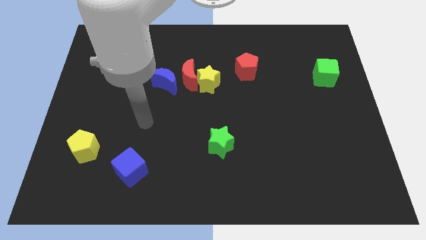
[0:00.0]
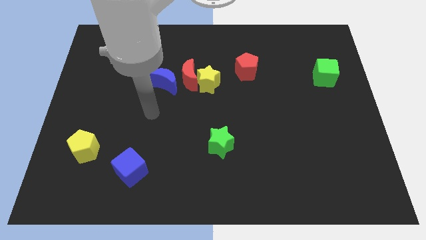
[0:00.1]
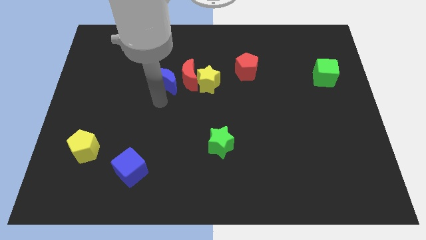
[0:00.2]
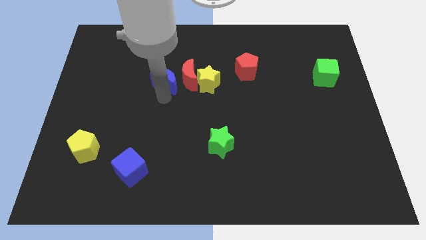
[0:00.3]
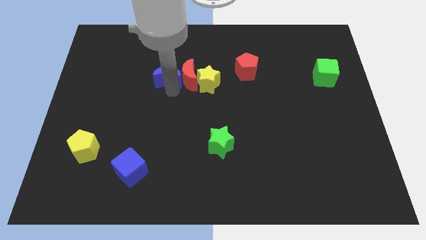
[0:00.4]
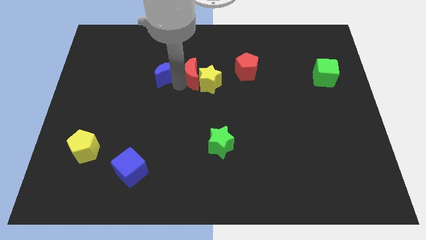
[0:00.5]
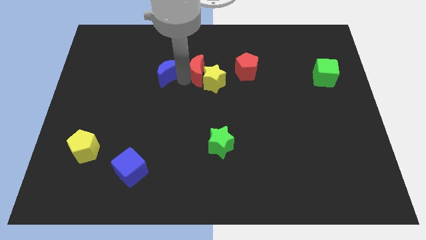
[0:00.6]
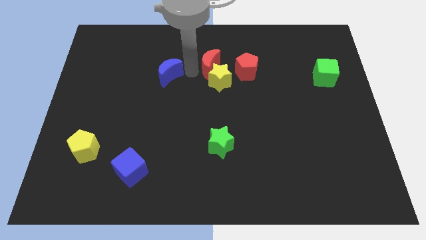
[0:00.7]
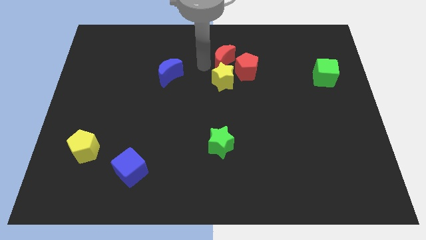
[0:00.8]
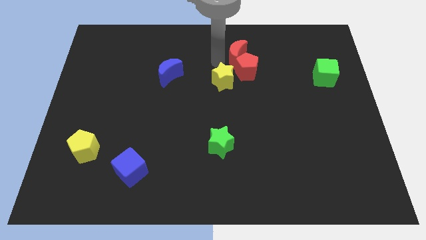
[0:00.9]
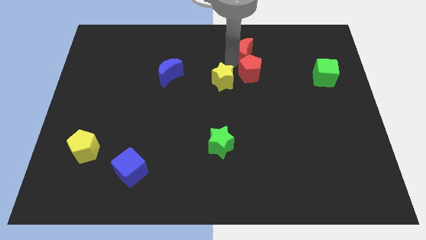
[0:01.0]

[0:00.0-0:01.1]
move the yellow star away from the red moon

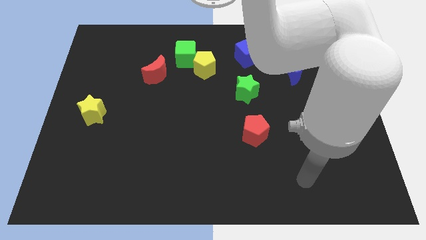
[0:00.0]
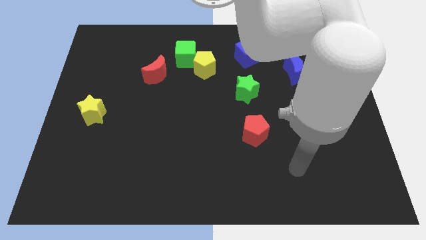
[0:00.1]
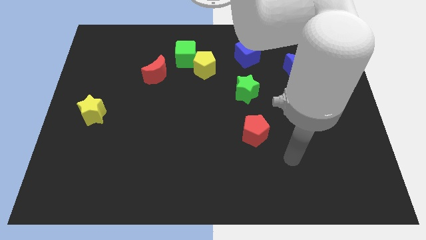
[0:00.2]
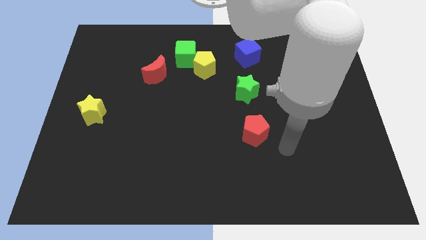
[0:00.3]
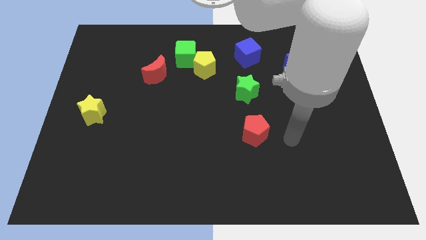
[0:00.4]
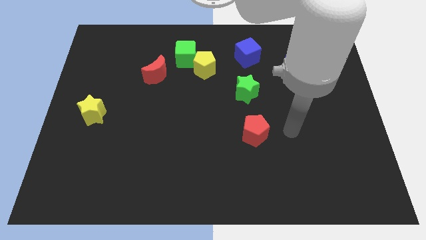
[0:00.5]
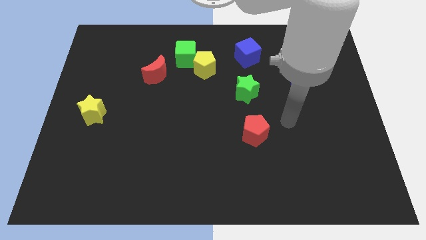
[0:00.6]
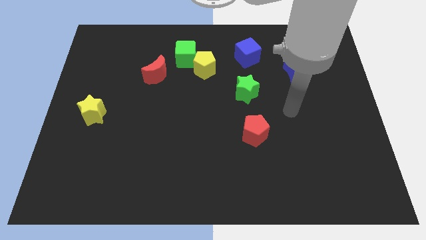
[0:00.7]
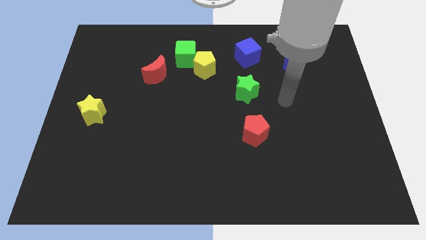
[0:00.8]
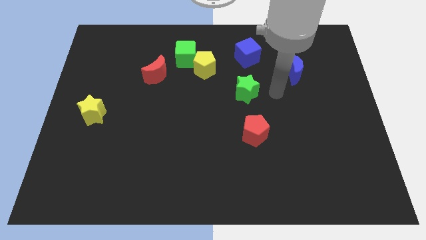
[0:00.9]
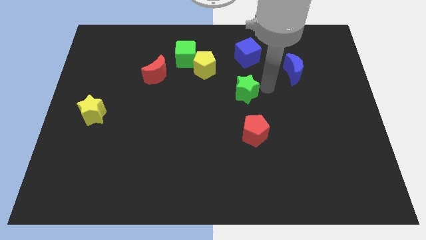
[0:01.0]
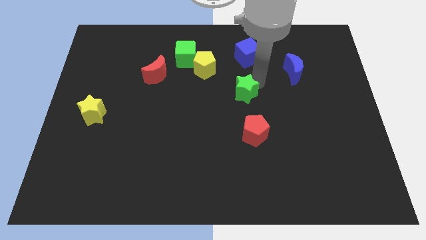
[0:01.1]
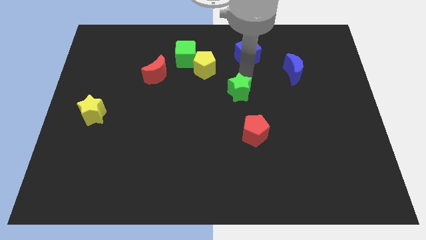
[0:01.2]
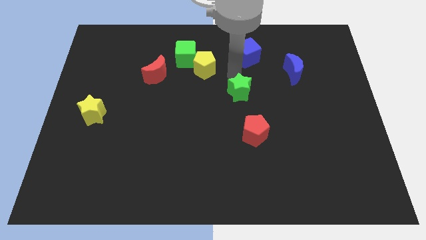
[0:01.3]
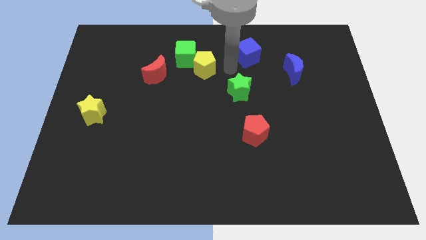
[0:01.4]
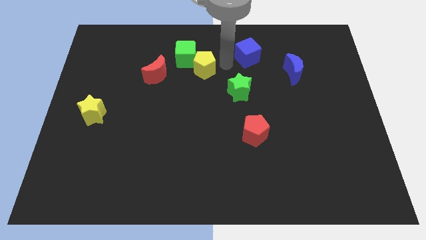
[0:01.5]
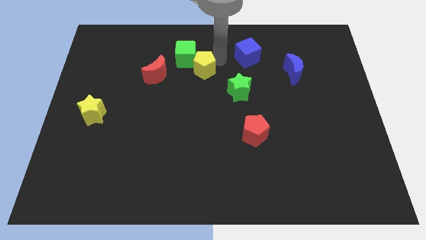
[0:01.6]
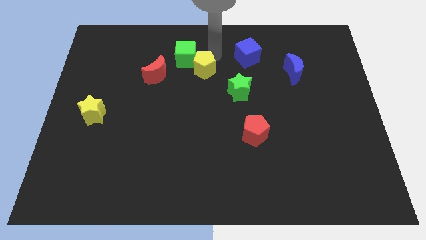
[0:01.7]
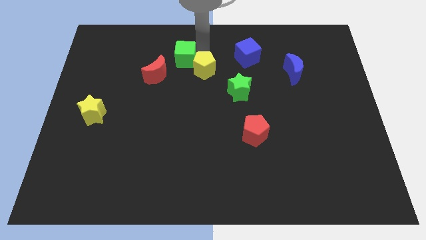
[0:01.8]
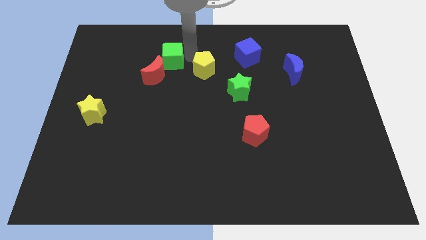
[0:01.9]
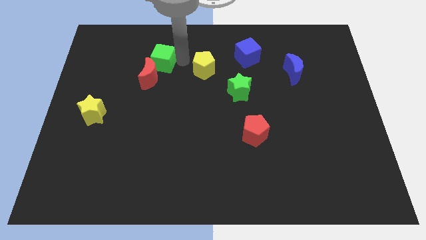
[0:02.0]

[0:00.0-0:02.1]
separate the yellow pentagon from the green cube

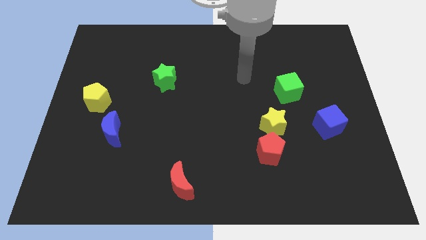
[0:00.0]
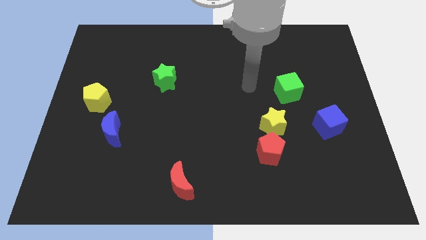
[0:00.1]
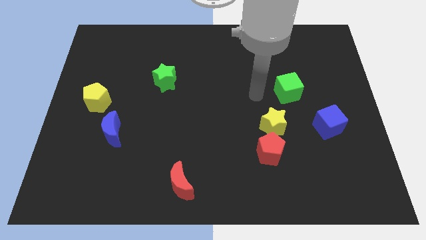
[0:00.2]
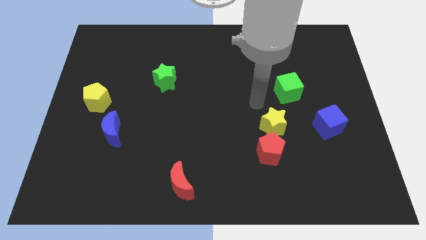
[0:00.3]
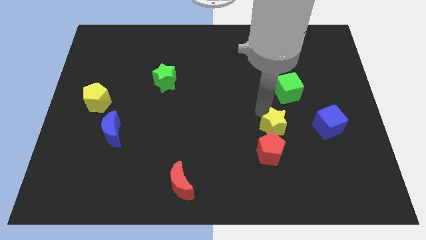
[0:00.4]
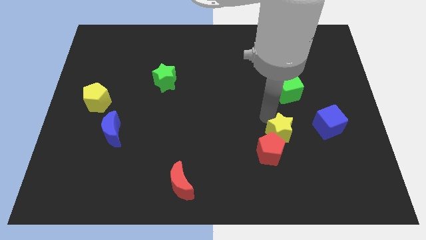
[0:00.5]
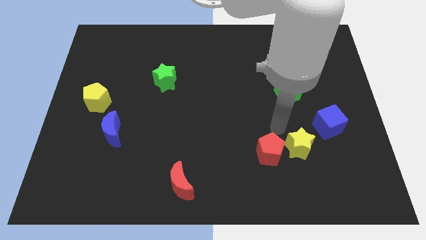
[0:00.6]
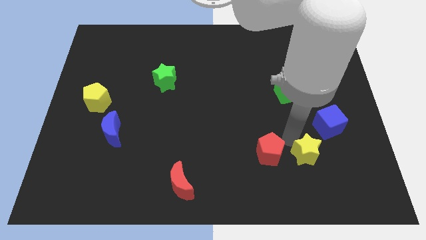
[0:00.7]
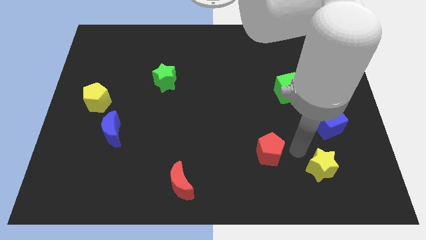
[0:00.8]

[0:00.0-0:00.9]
move the red pentagon away from the yellow star

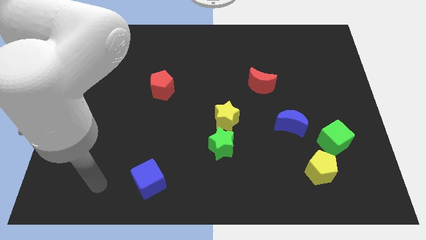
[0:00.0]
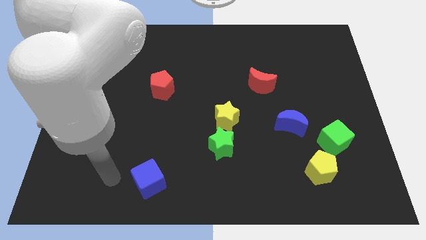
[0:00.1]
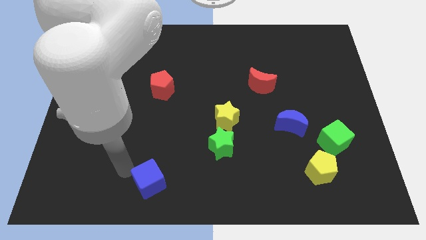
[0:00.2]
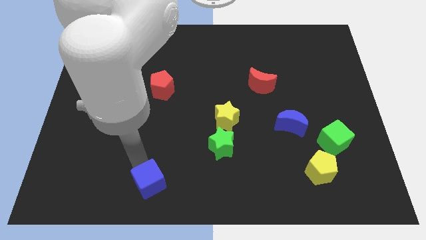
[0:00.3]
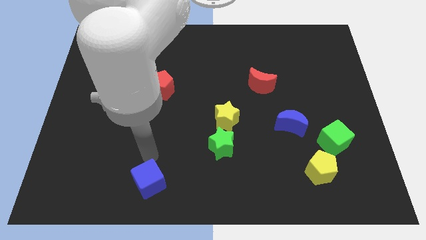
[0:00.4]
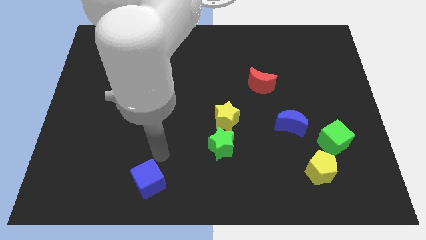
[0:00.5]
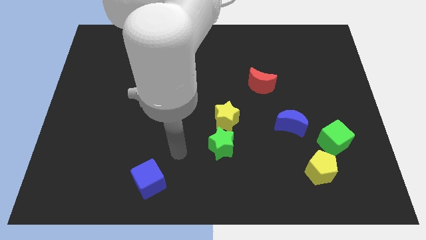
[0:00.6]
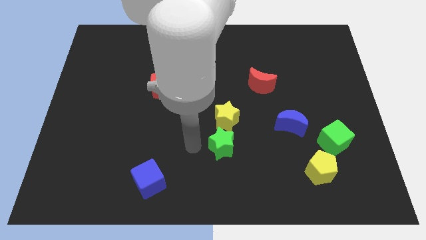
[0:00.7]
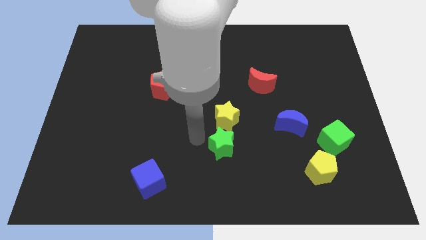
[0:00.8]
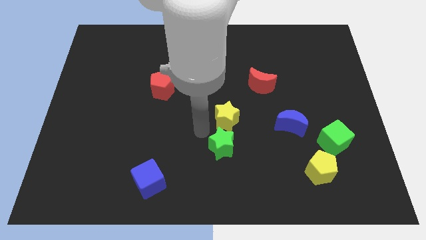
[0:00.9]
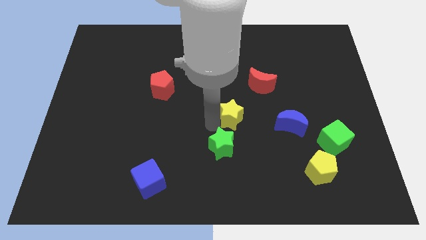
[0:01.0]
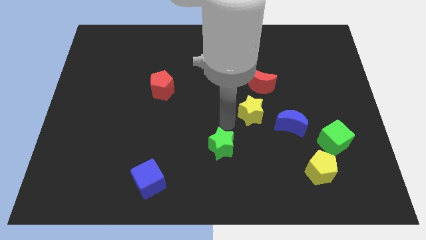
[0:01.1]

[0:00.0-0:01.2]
separate the green star from the yellow star

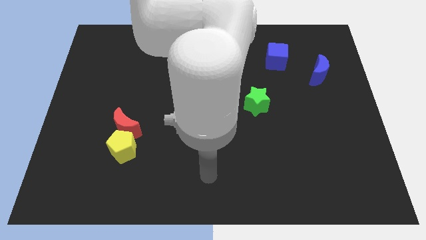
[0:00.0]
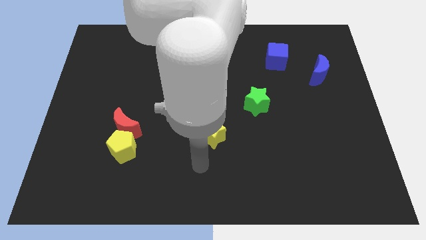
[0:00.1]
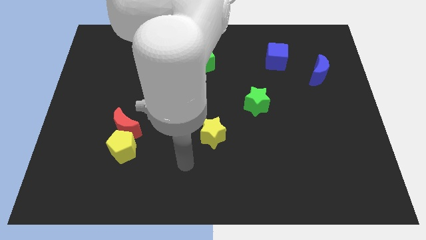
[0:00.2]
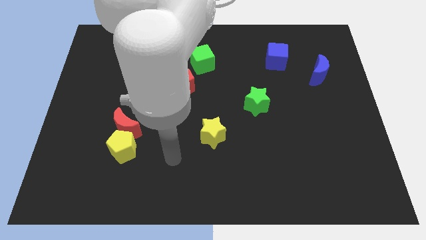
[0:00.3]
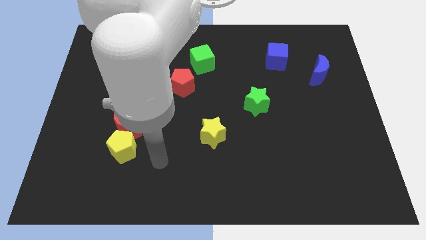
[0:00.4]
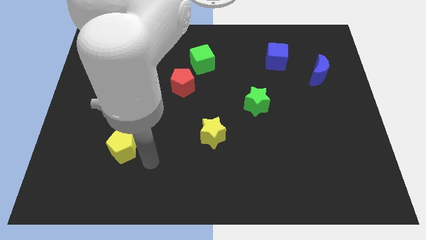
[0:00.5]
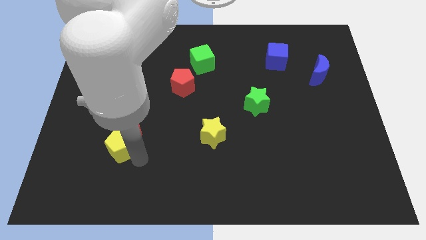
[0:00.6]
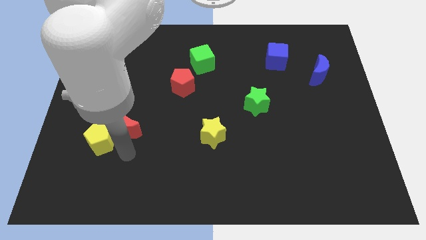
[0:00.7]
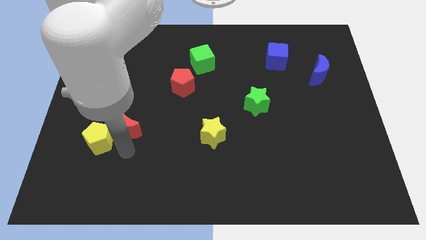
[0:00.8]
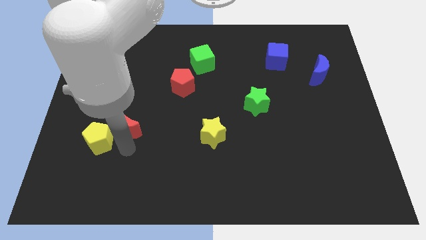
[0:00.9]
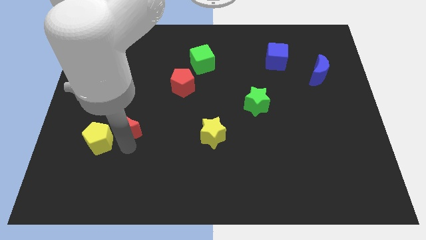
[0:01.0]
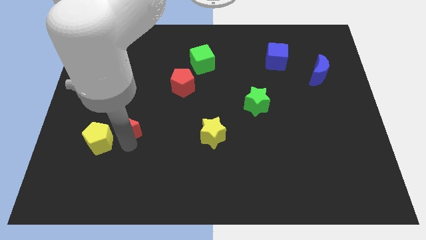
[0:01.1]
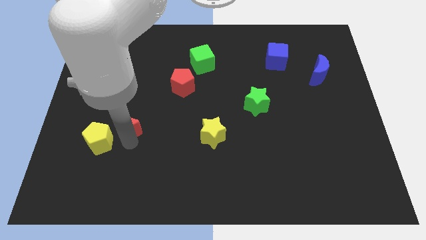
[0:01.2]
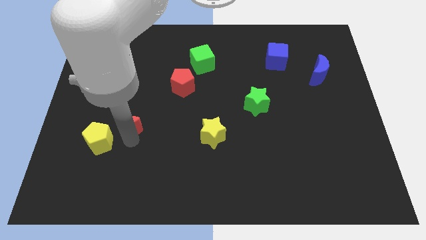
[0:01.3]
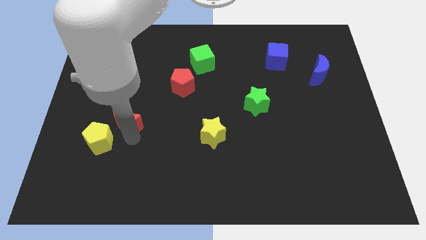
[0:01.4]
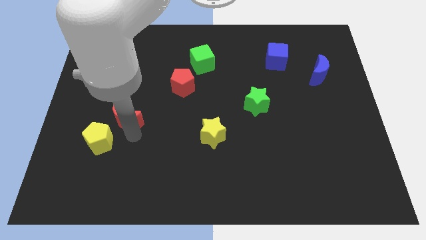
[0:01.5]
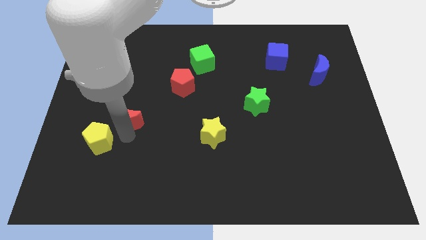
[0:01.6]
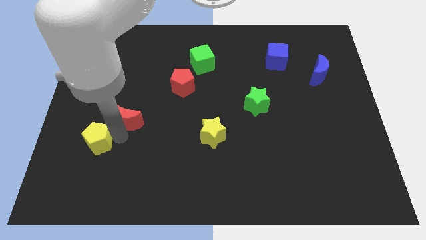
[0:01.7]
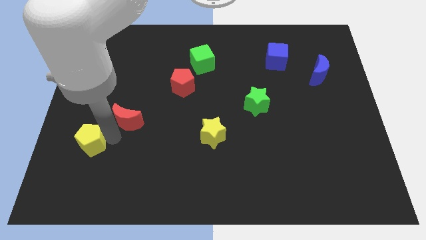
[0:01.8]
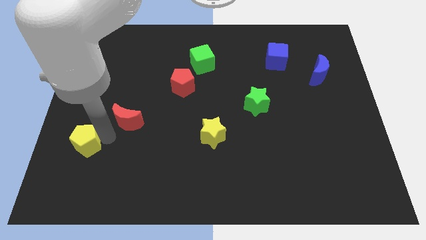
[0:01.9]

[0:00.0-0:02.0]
separate the red moon from the yellow pentagon

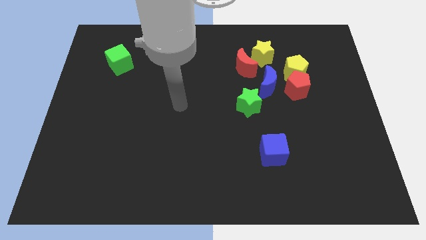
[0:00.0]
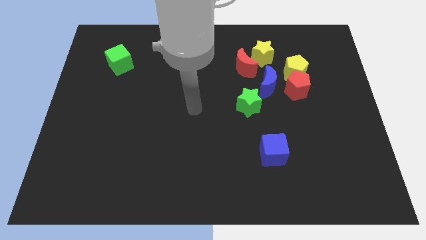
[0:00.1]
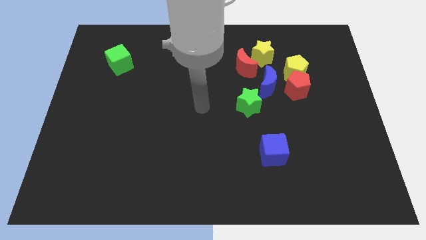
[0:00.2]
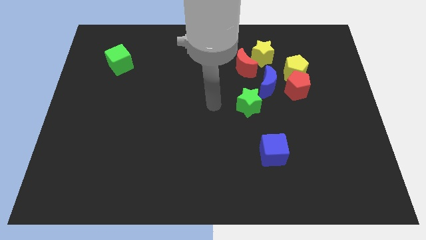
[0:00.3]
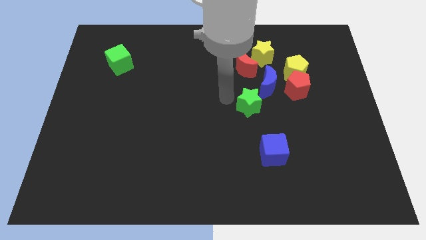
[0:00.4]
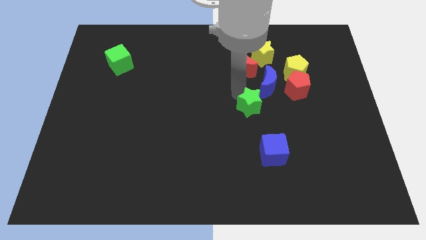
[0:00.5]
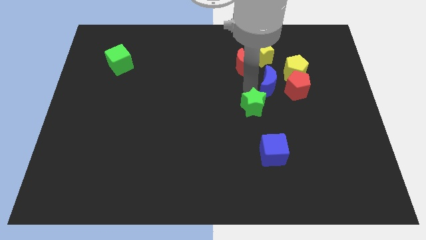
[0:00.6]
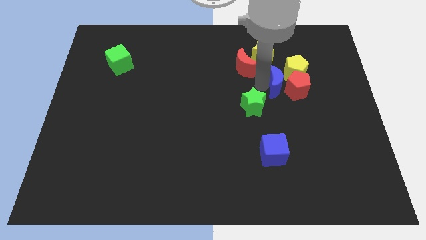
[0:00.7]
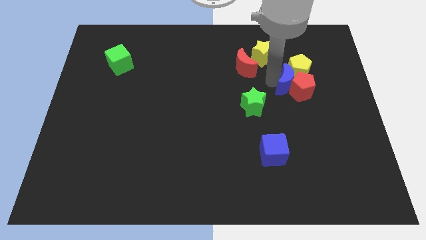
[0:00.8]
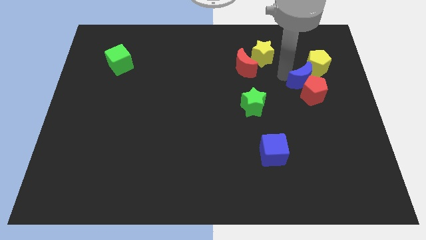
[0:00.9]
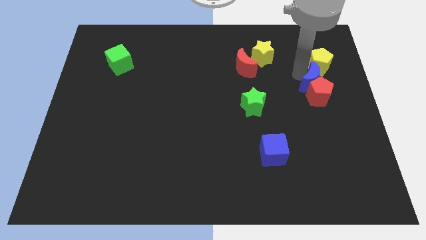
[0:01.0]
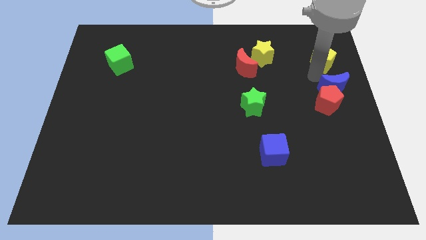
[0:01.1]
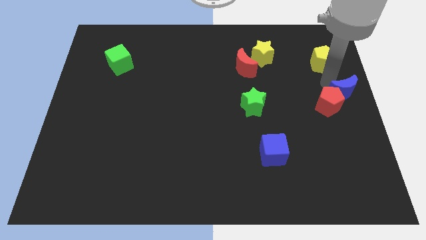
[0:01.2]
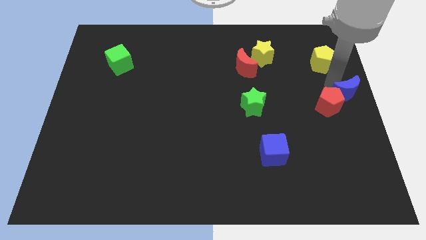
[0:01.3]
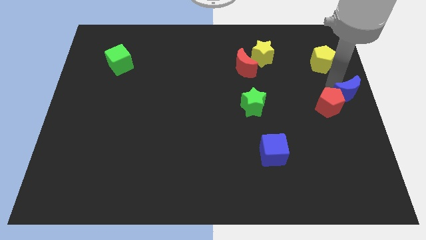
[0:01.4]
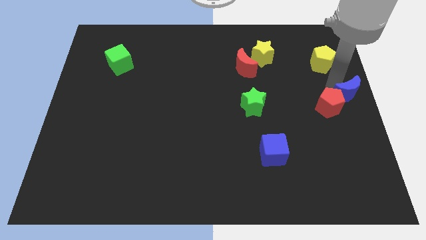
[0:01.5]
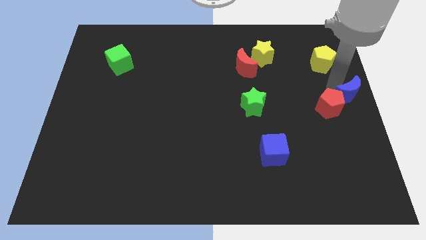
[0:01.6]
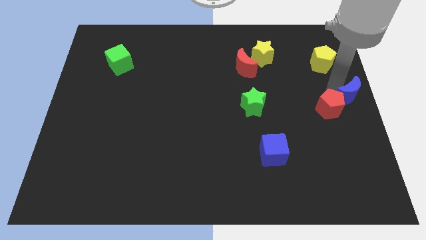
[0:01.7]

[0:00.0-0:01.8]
move the red pentagon away from the yellow pentagon and blue moon

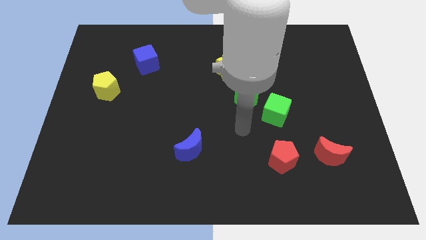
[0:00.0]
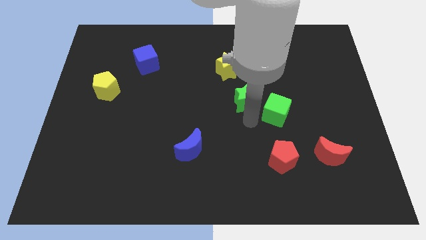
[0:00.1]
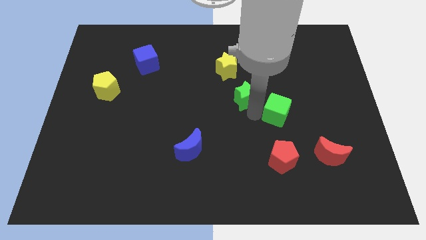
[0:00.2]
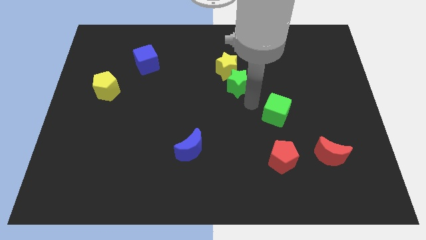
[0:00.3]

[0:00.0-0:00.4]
pull the green cube apart from the green star
